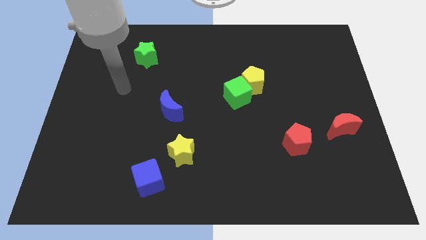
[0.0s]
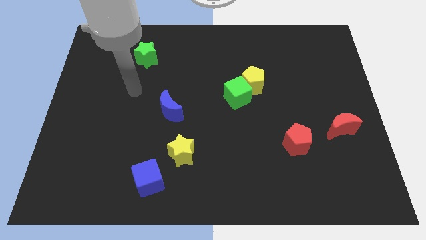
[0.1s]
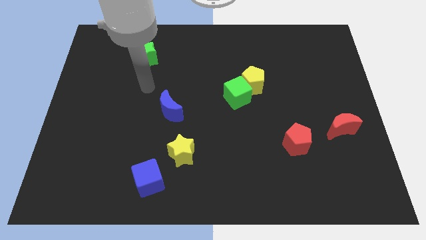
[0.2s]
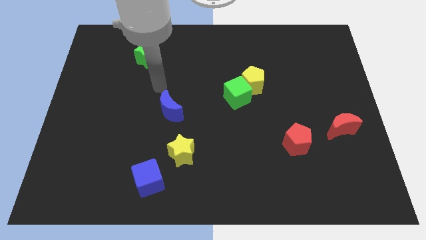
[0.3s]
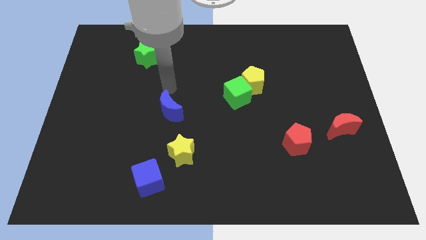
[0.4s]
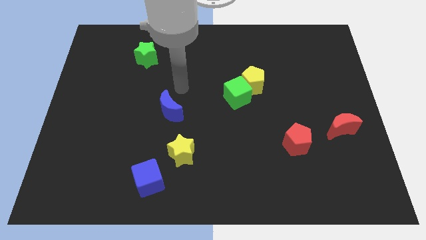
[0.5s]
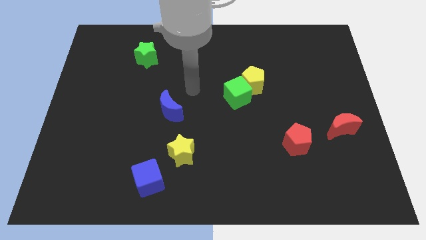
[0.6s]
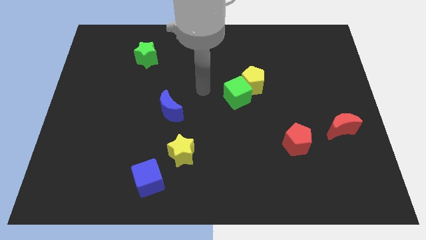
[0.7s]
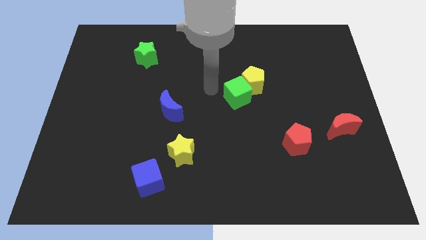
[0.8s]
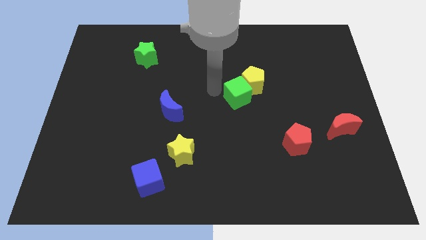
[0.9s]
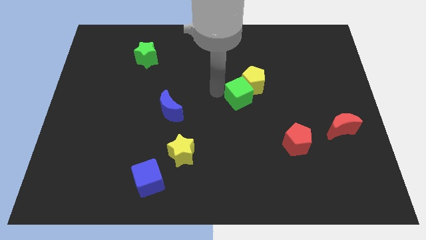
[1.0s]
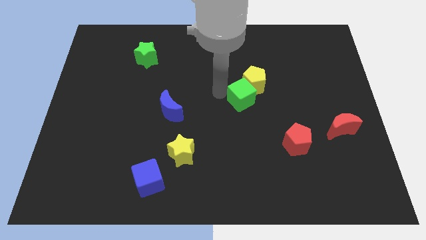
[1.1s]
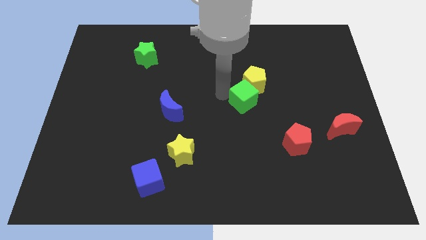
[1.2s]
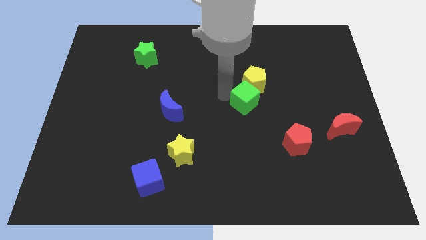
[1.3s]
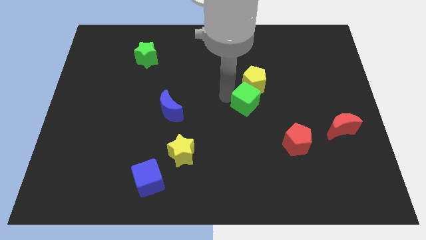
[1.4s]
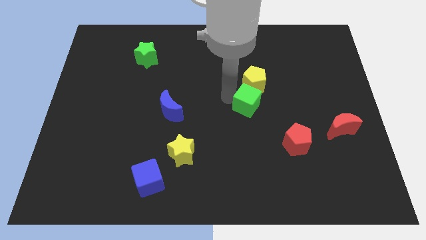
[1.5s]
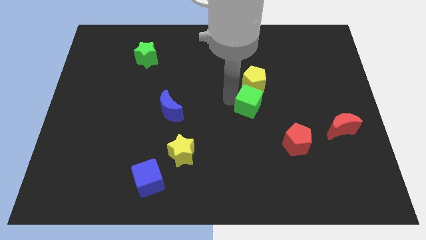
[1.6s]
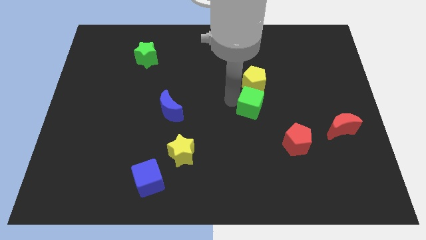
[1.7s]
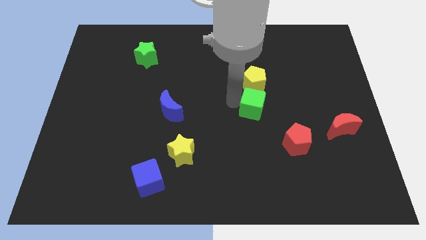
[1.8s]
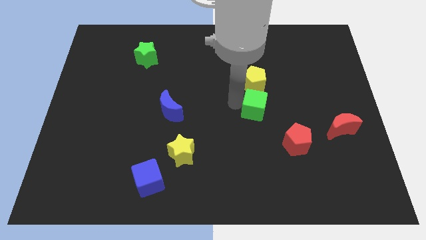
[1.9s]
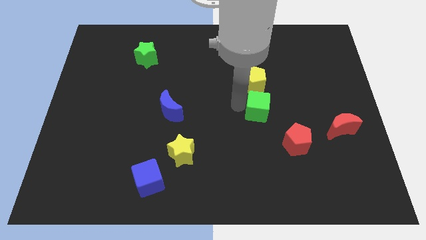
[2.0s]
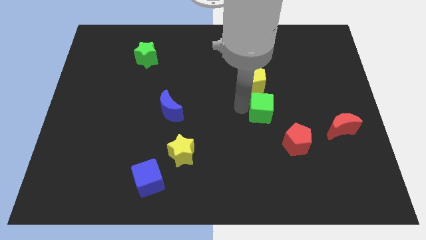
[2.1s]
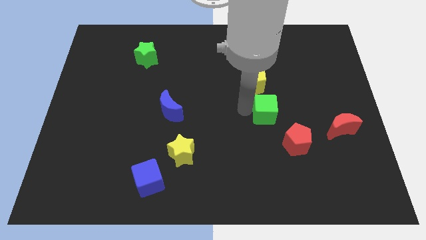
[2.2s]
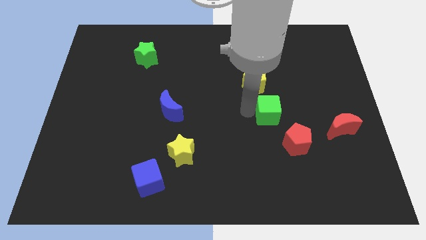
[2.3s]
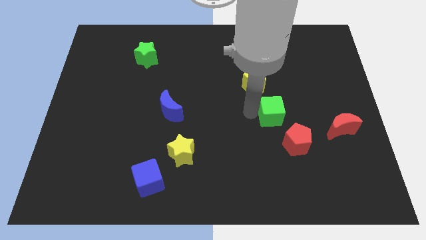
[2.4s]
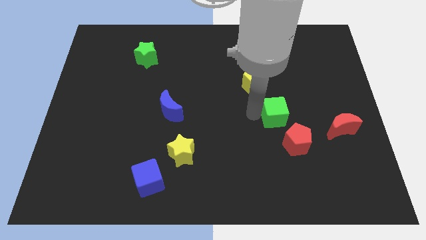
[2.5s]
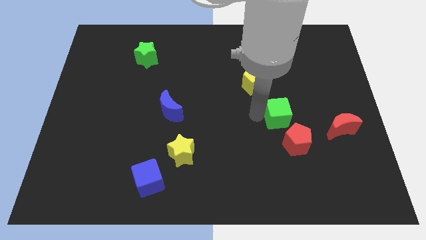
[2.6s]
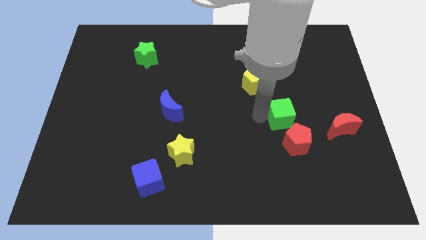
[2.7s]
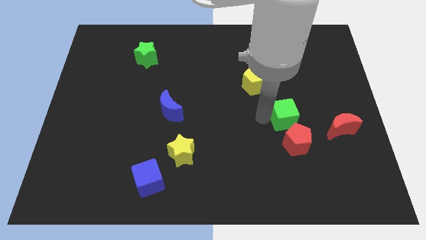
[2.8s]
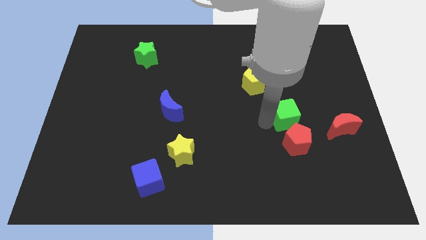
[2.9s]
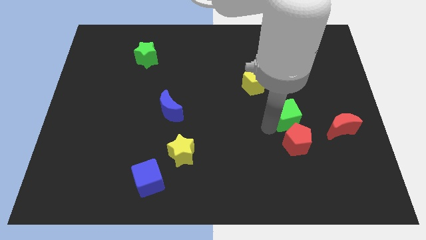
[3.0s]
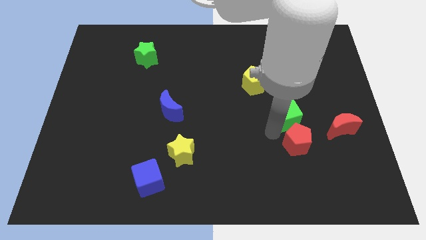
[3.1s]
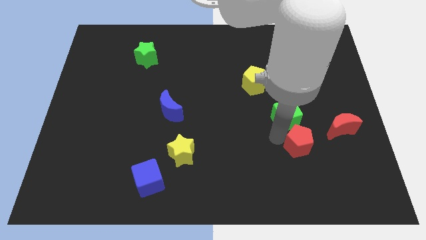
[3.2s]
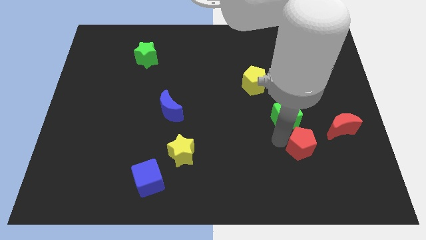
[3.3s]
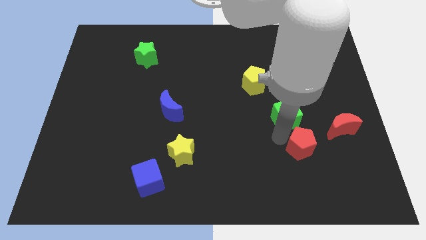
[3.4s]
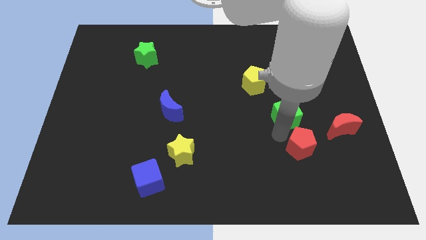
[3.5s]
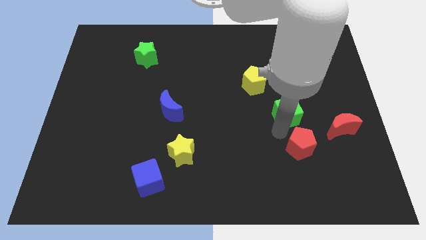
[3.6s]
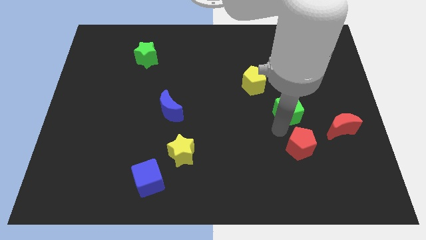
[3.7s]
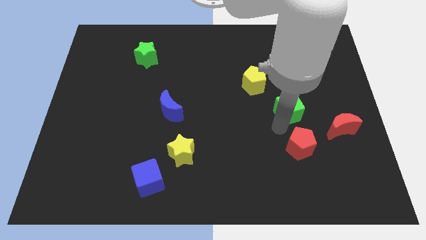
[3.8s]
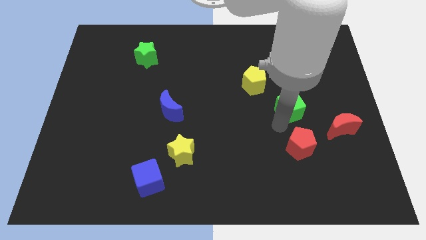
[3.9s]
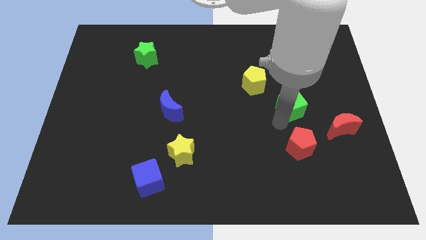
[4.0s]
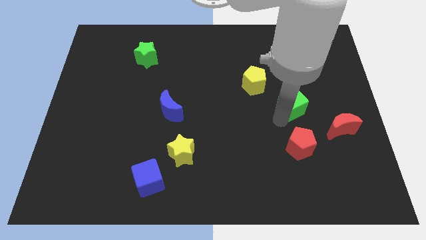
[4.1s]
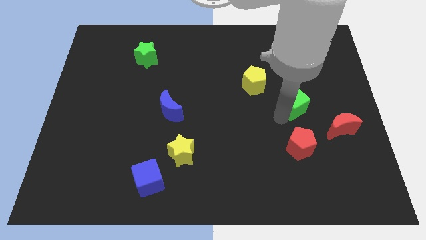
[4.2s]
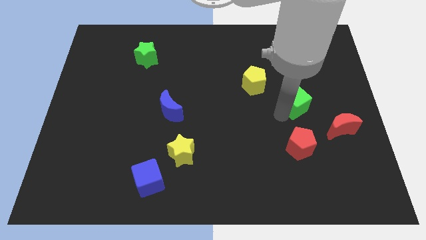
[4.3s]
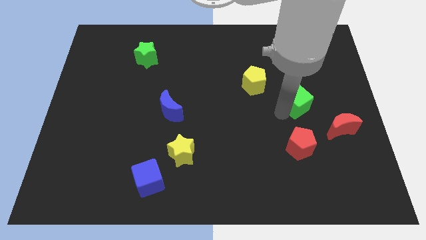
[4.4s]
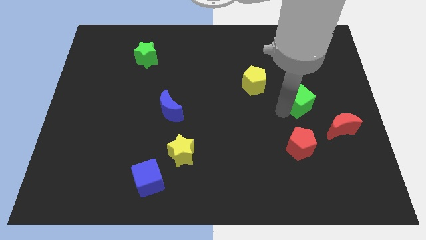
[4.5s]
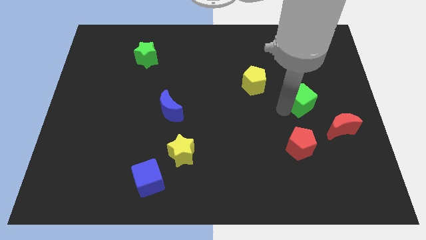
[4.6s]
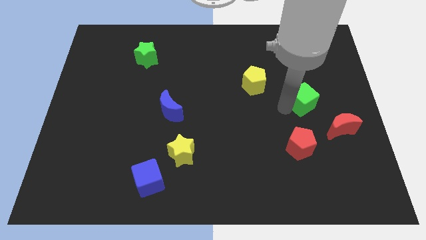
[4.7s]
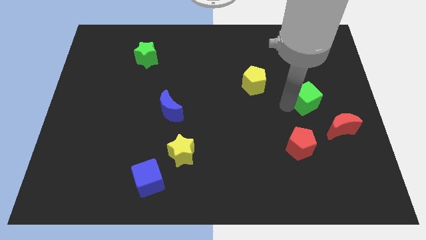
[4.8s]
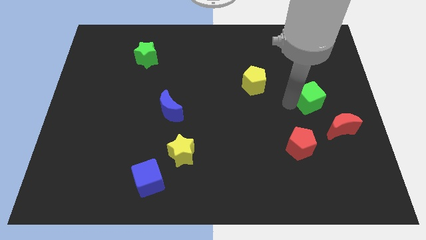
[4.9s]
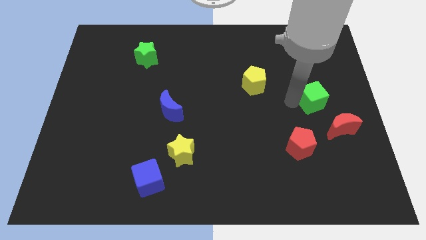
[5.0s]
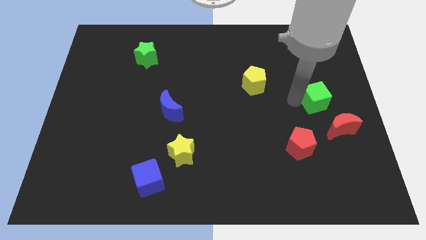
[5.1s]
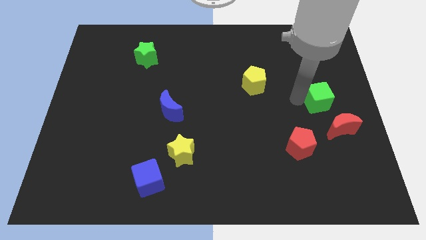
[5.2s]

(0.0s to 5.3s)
slide the green cube to the center right
